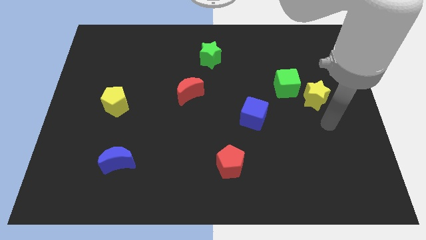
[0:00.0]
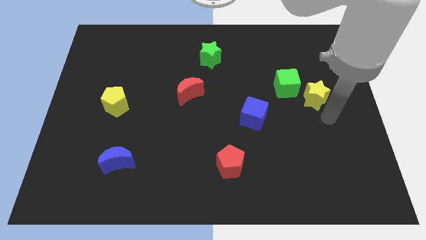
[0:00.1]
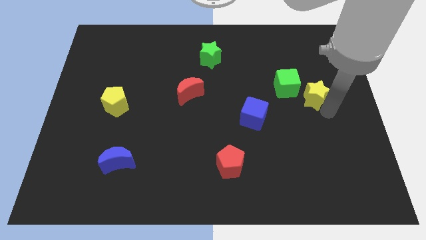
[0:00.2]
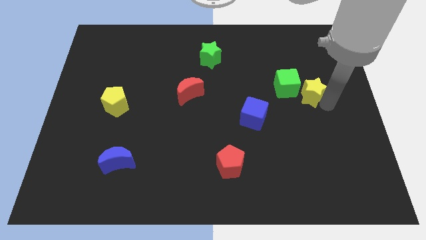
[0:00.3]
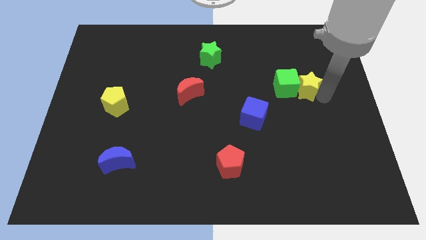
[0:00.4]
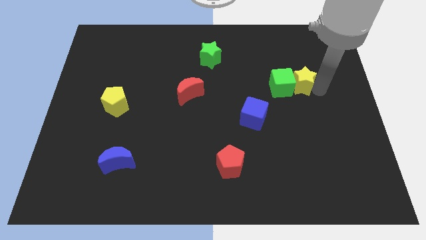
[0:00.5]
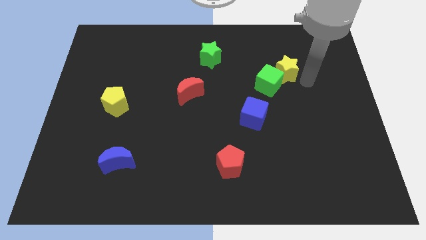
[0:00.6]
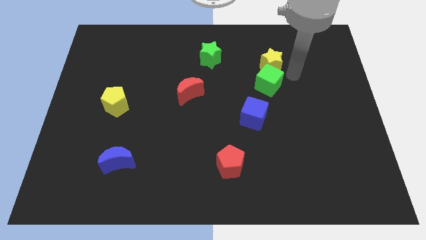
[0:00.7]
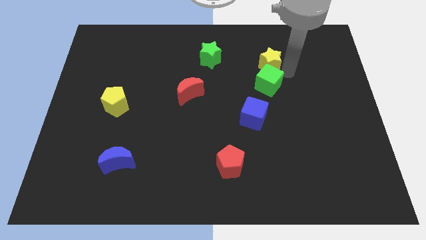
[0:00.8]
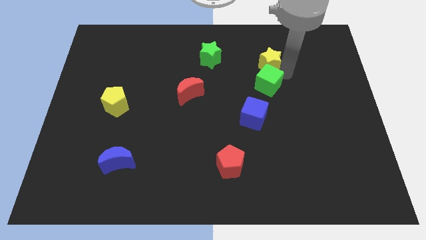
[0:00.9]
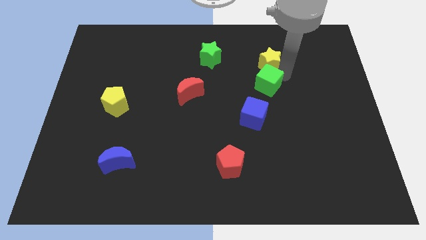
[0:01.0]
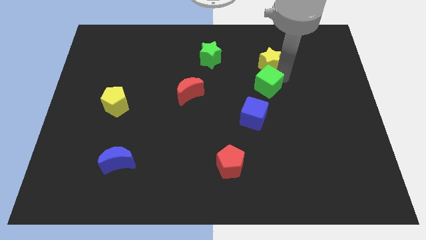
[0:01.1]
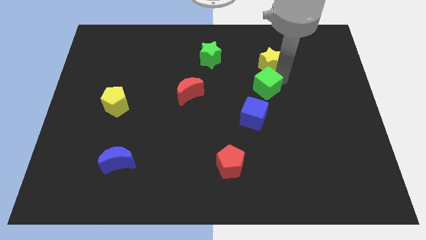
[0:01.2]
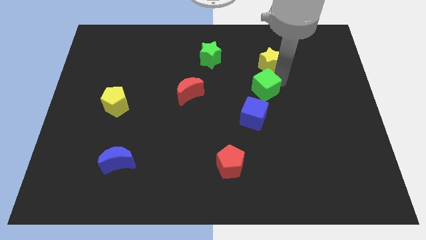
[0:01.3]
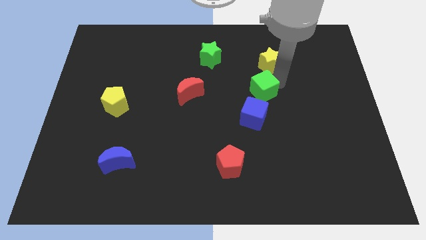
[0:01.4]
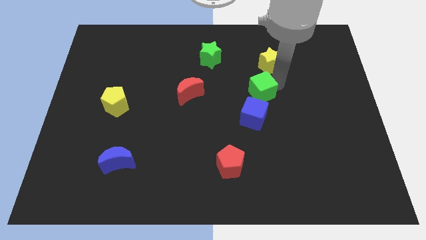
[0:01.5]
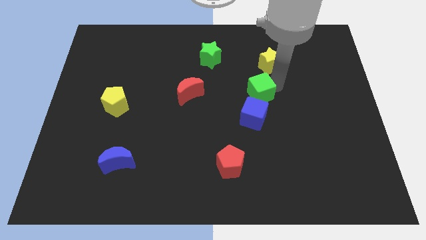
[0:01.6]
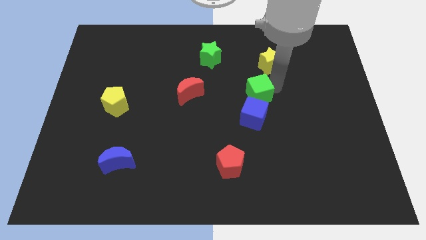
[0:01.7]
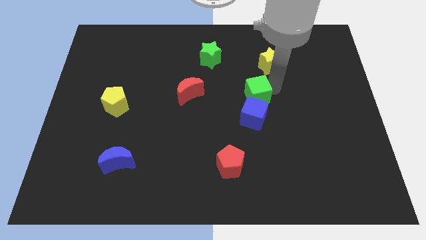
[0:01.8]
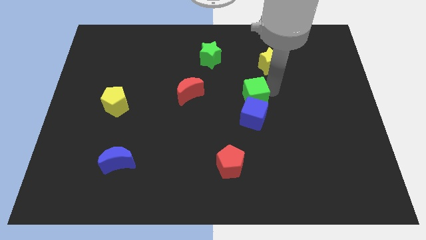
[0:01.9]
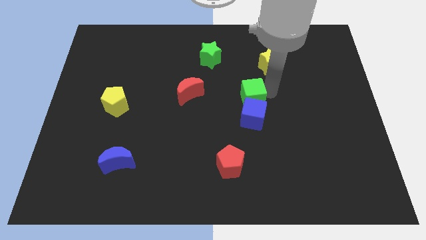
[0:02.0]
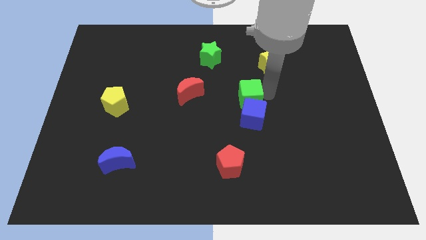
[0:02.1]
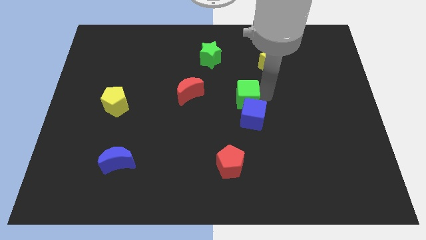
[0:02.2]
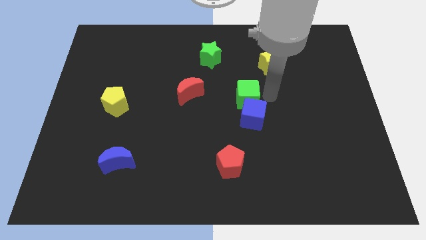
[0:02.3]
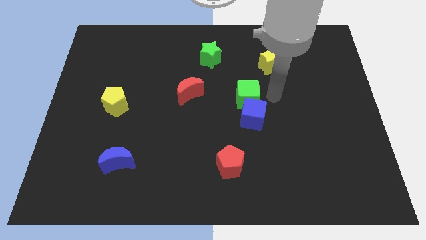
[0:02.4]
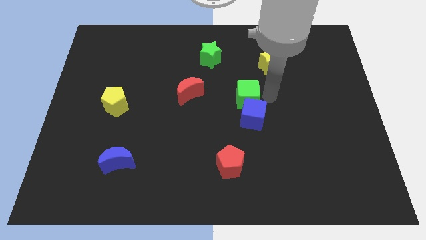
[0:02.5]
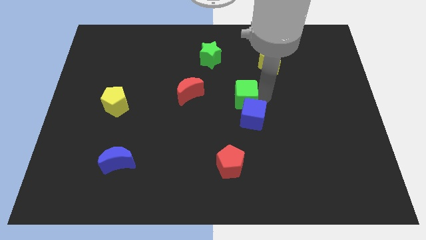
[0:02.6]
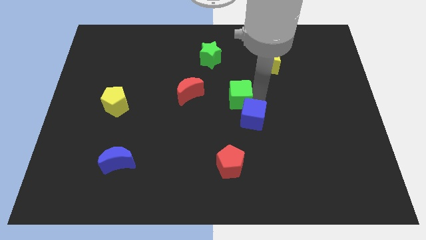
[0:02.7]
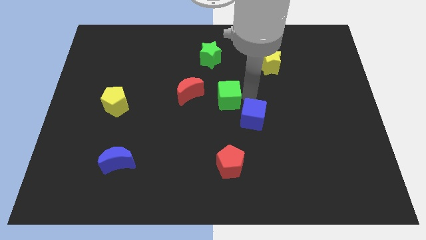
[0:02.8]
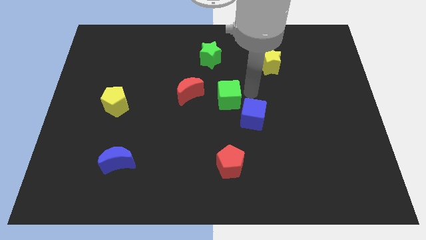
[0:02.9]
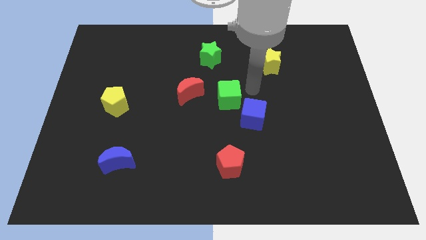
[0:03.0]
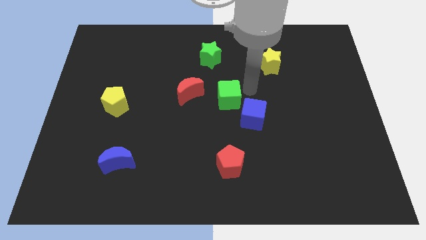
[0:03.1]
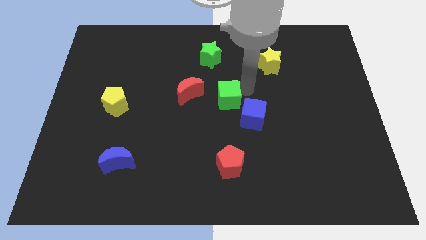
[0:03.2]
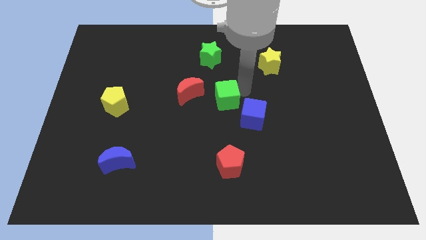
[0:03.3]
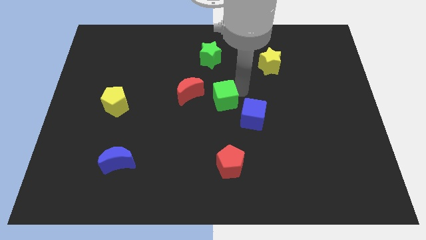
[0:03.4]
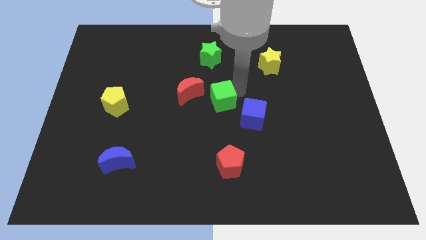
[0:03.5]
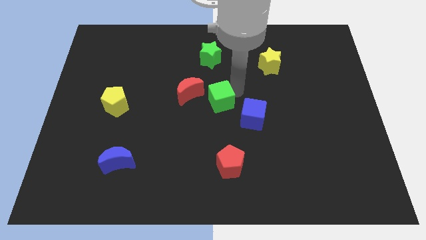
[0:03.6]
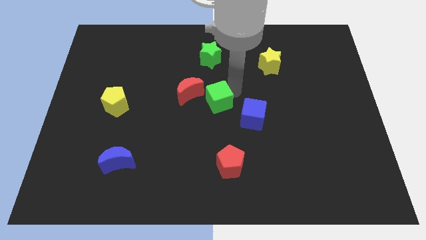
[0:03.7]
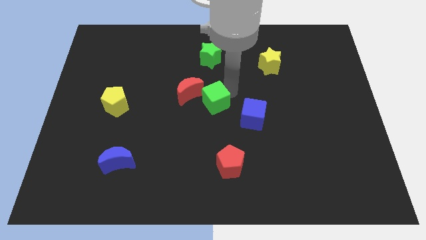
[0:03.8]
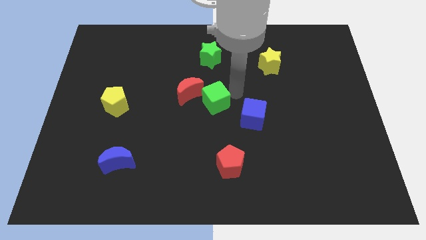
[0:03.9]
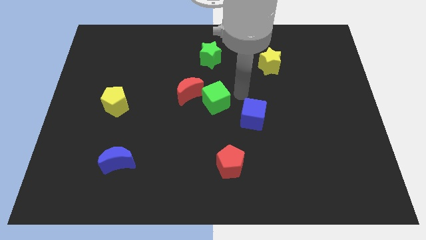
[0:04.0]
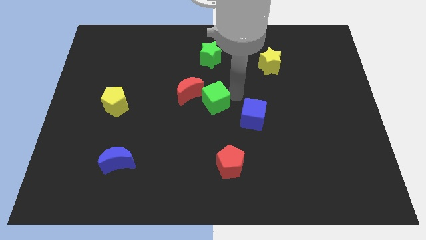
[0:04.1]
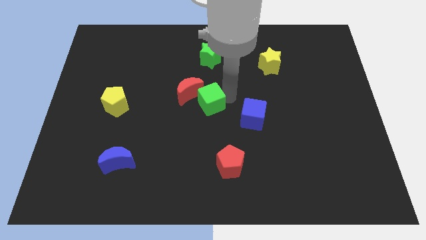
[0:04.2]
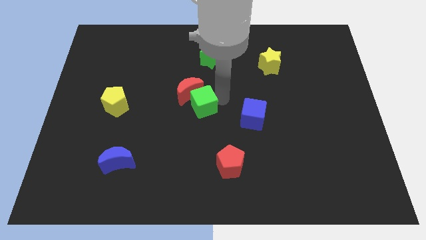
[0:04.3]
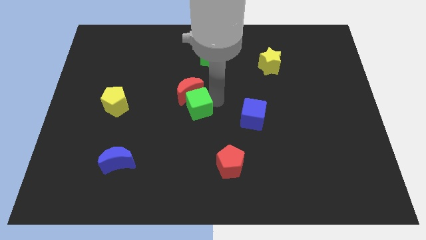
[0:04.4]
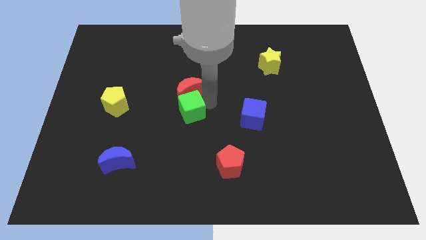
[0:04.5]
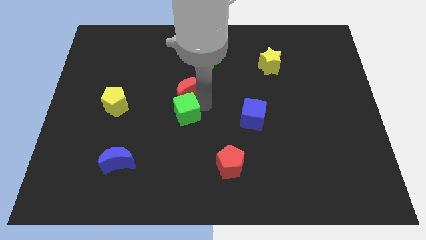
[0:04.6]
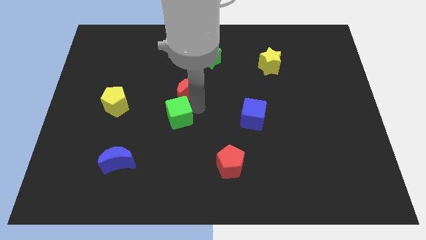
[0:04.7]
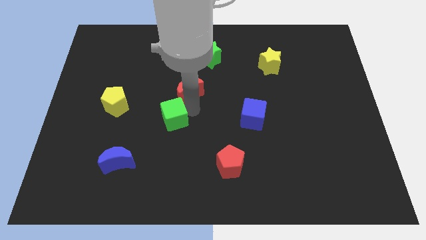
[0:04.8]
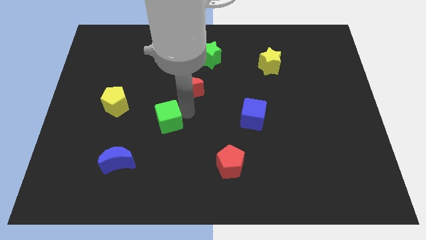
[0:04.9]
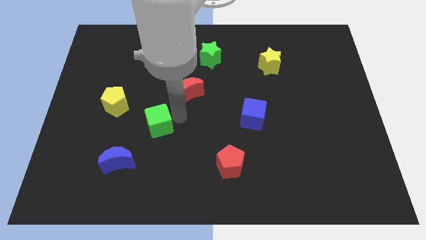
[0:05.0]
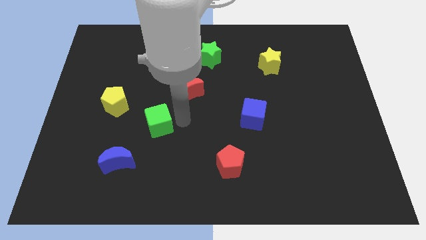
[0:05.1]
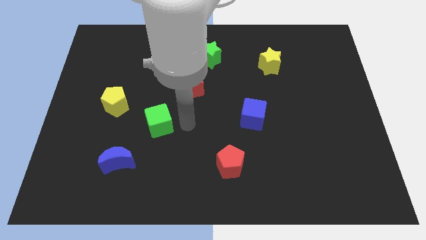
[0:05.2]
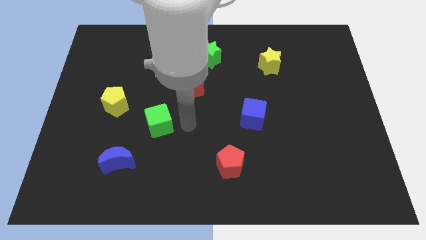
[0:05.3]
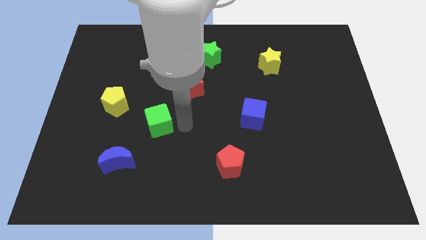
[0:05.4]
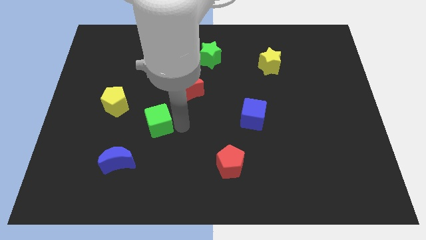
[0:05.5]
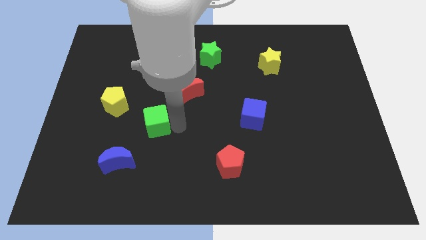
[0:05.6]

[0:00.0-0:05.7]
put the green cube to the bottom right side of the yellow pentagon

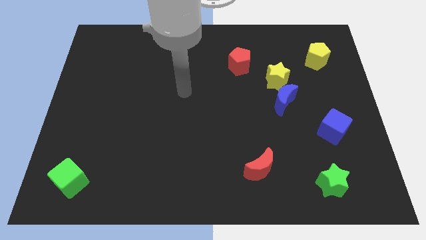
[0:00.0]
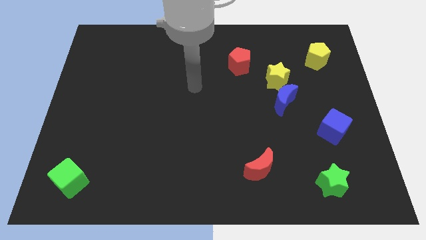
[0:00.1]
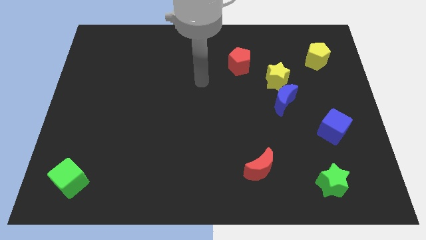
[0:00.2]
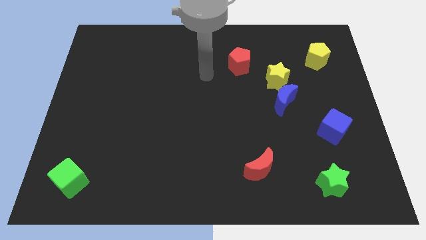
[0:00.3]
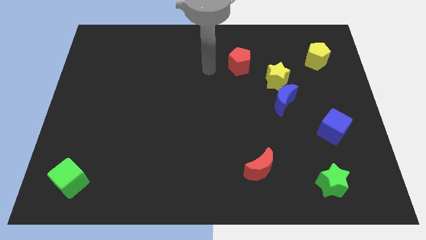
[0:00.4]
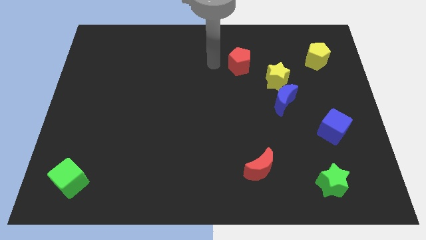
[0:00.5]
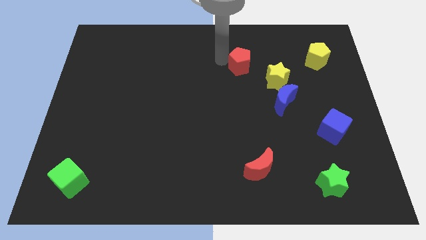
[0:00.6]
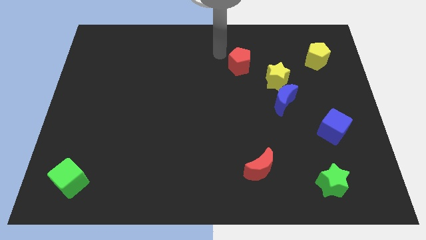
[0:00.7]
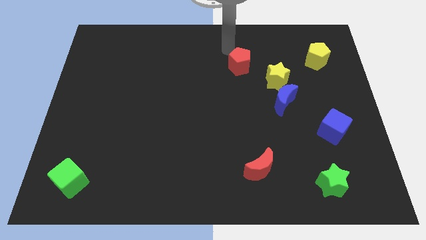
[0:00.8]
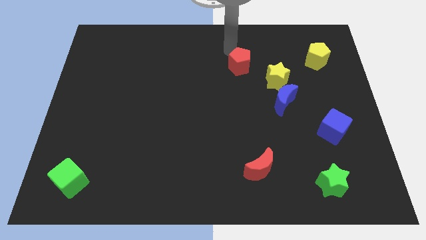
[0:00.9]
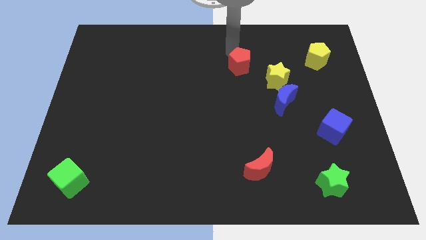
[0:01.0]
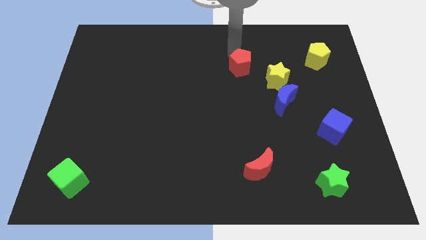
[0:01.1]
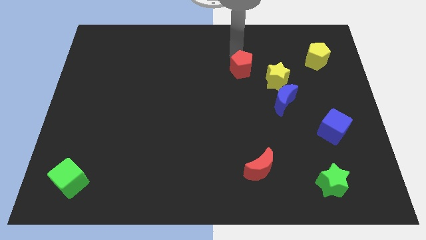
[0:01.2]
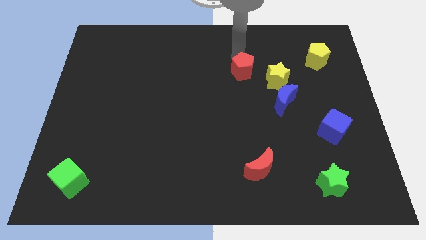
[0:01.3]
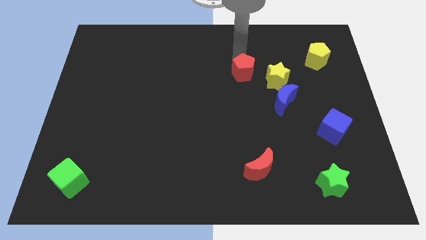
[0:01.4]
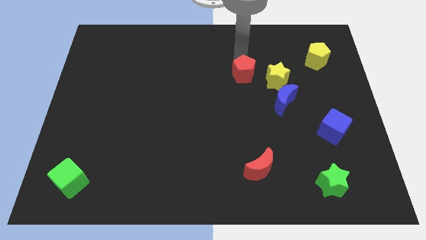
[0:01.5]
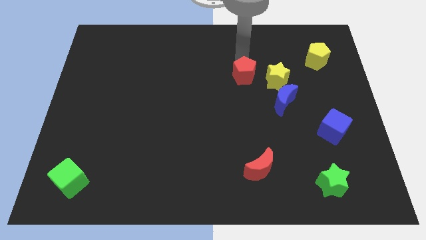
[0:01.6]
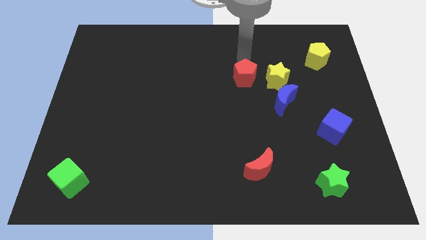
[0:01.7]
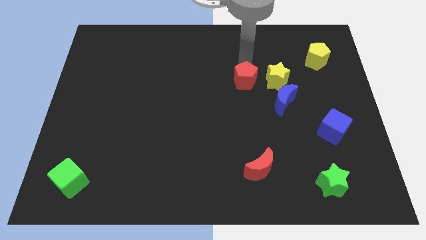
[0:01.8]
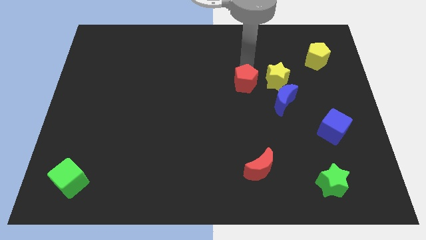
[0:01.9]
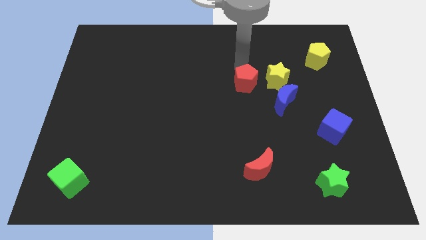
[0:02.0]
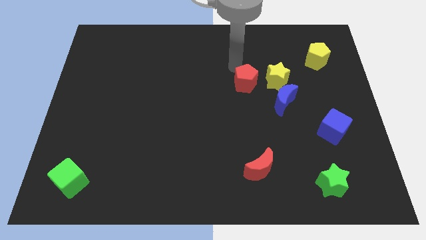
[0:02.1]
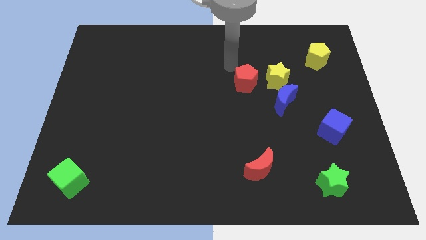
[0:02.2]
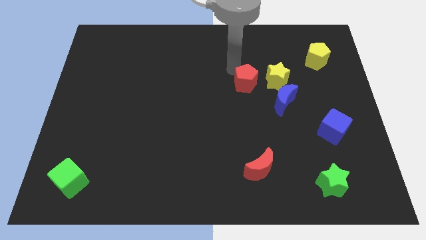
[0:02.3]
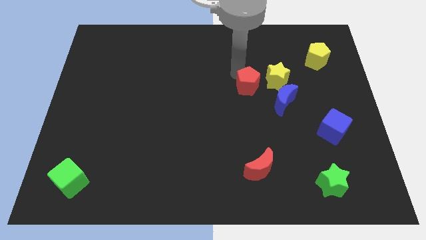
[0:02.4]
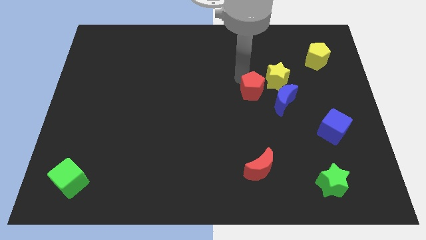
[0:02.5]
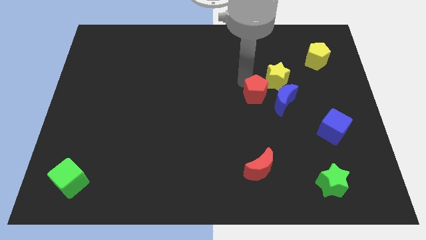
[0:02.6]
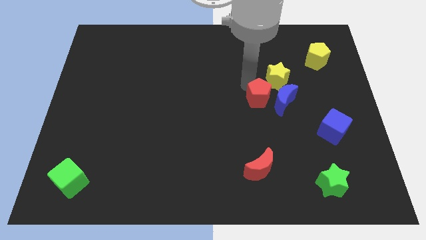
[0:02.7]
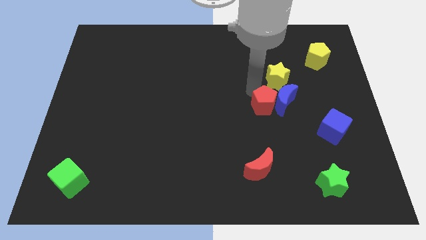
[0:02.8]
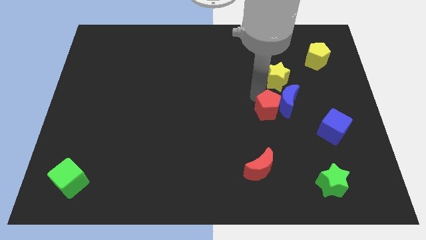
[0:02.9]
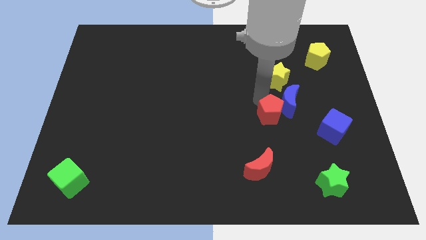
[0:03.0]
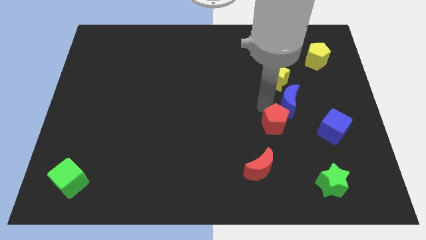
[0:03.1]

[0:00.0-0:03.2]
move the red pentagon to the bottom side of the blue moon
